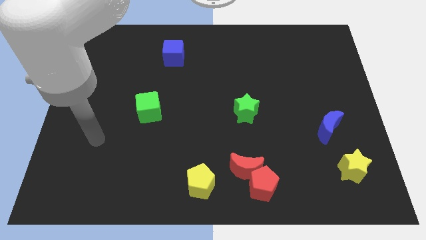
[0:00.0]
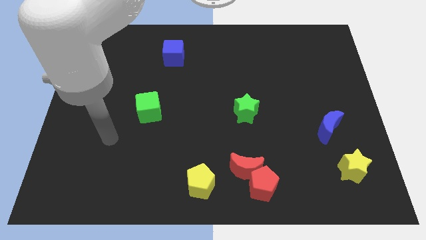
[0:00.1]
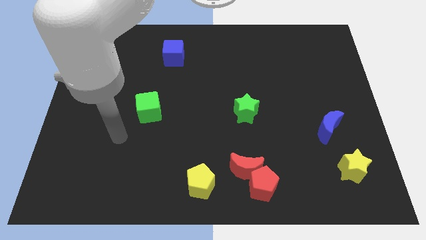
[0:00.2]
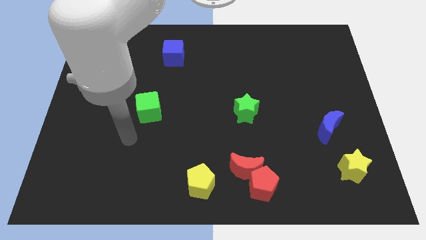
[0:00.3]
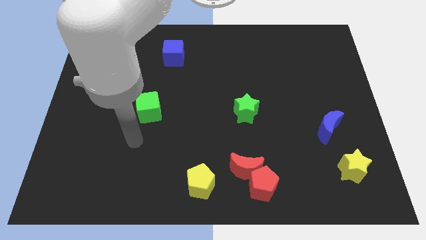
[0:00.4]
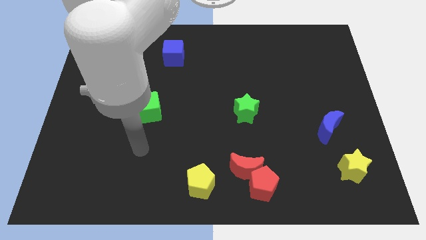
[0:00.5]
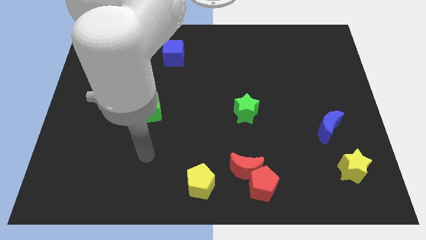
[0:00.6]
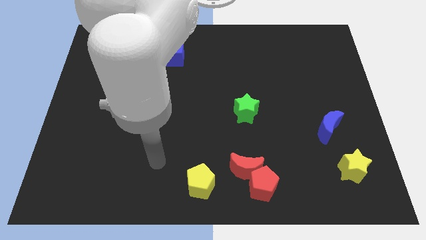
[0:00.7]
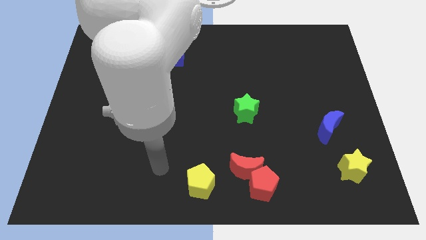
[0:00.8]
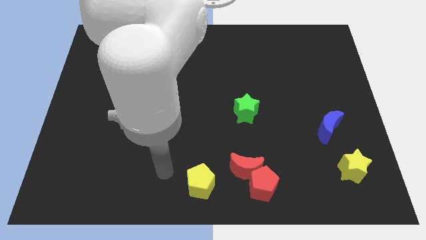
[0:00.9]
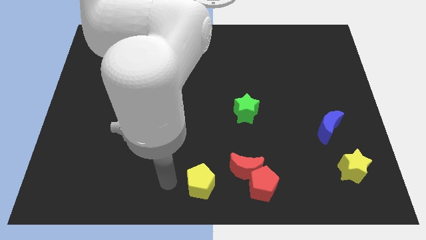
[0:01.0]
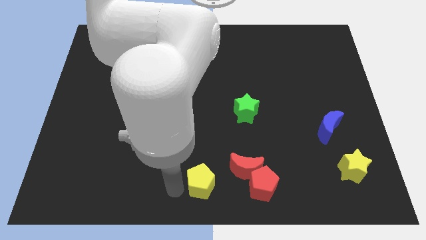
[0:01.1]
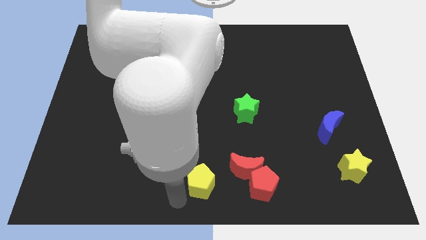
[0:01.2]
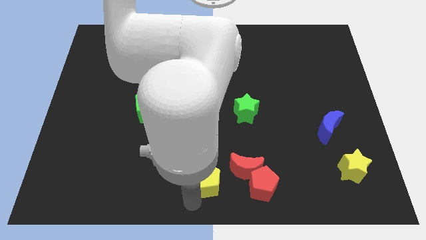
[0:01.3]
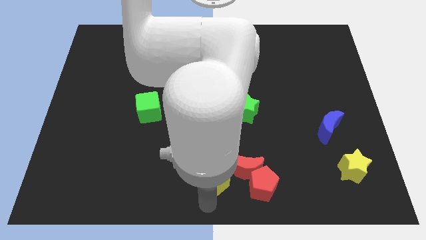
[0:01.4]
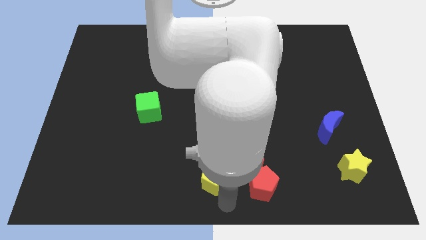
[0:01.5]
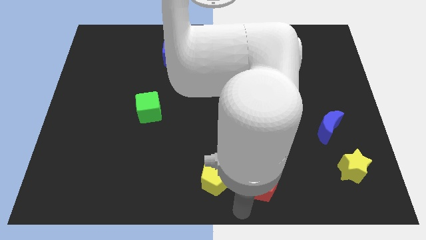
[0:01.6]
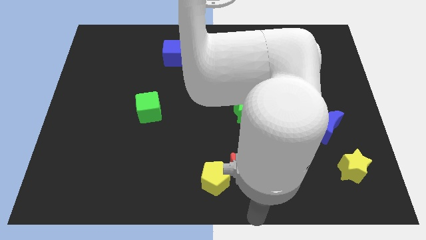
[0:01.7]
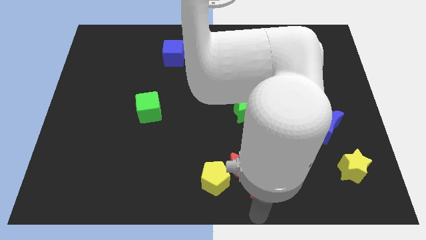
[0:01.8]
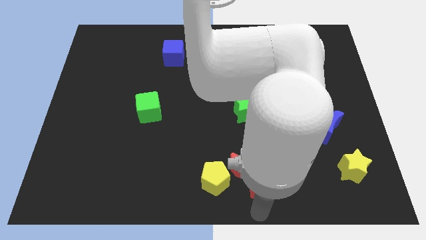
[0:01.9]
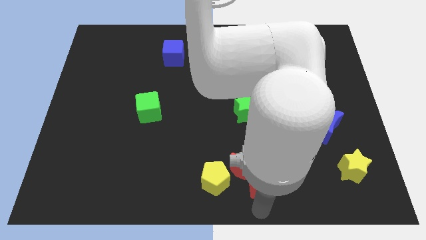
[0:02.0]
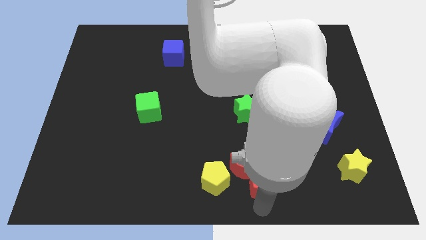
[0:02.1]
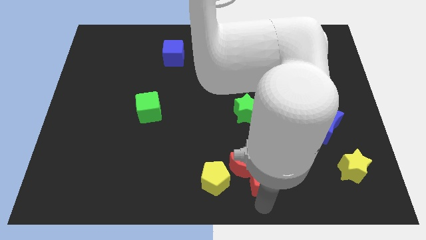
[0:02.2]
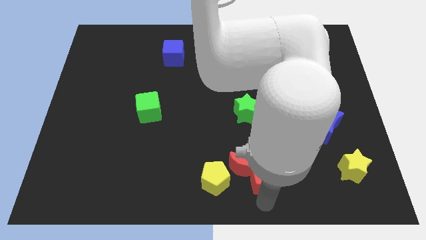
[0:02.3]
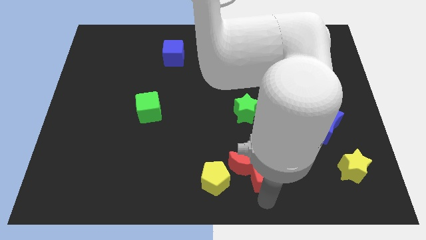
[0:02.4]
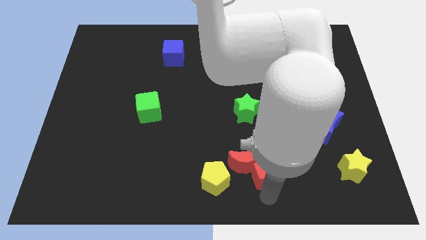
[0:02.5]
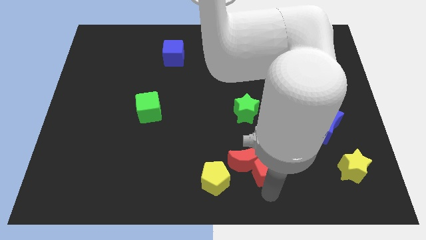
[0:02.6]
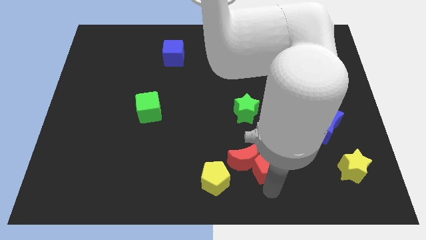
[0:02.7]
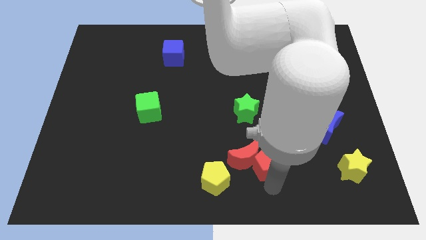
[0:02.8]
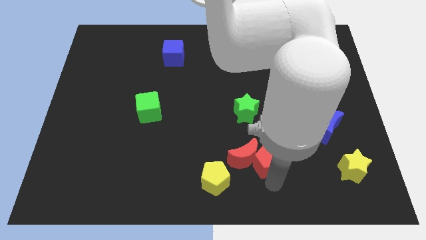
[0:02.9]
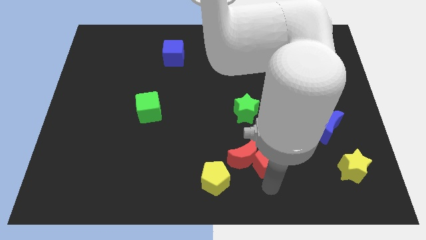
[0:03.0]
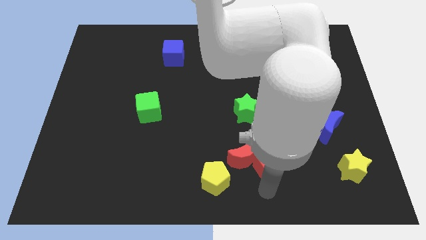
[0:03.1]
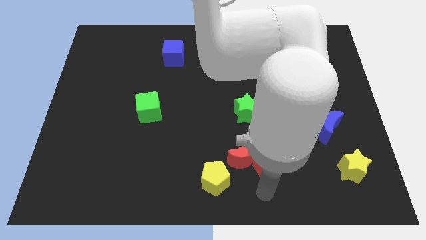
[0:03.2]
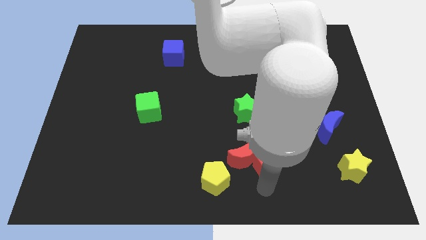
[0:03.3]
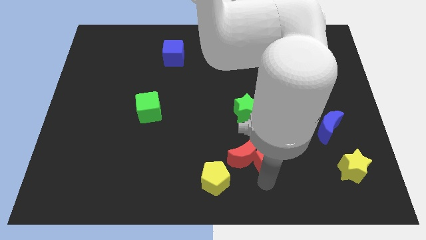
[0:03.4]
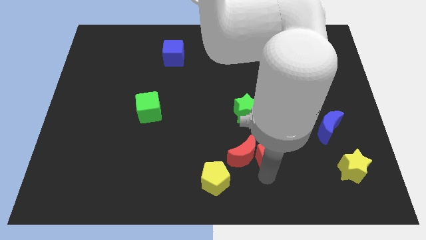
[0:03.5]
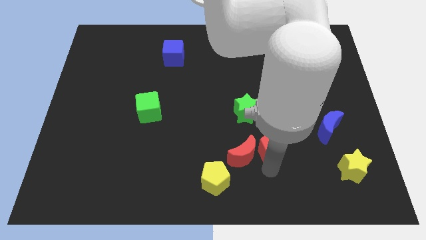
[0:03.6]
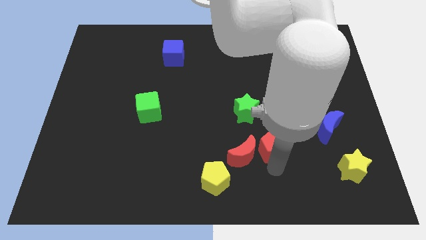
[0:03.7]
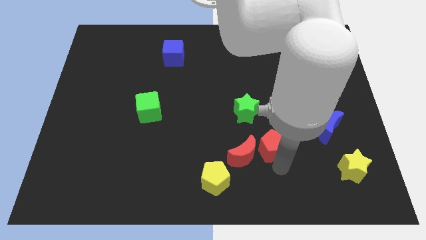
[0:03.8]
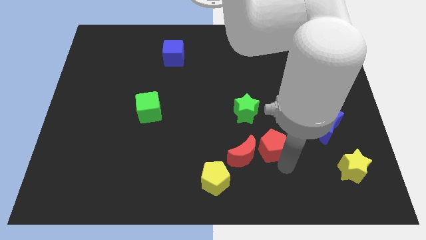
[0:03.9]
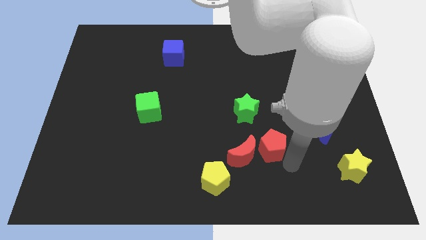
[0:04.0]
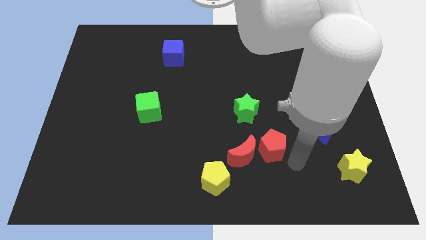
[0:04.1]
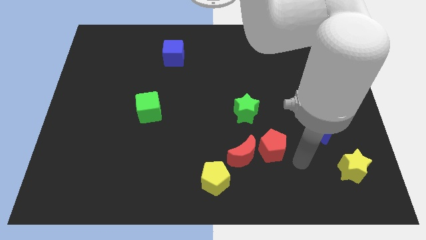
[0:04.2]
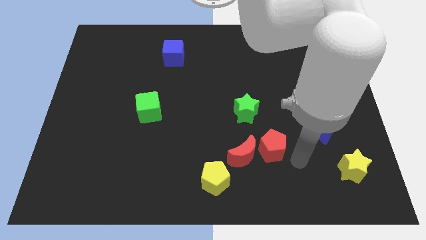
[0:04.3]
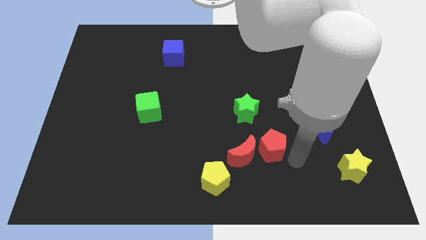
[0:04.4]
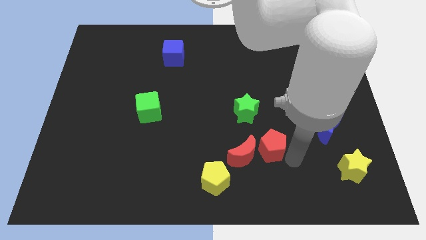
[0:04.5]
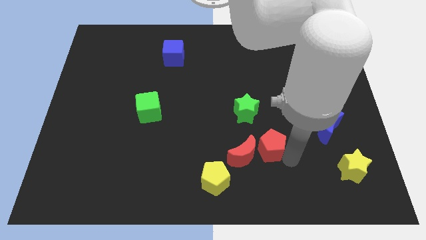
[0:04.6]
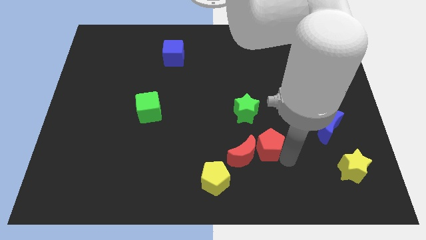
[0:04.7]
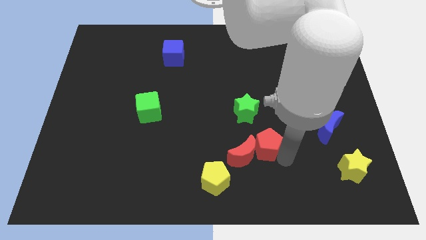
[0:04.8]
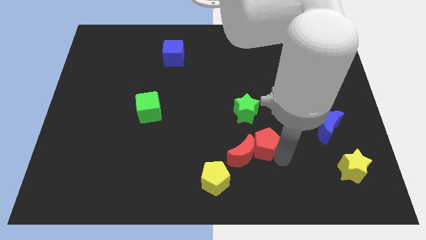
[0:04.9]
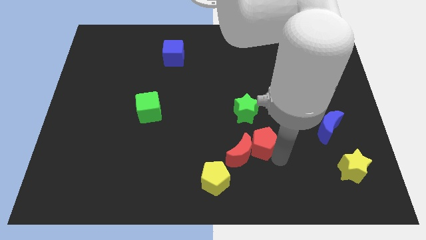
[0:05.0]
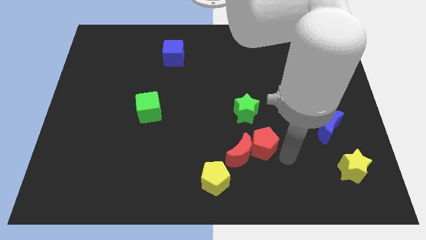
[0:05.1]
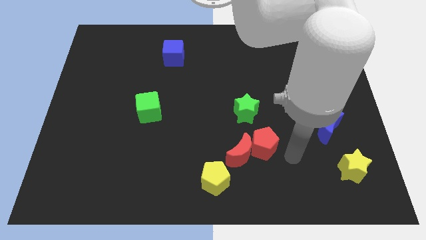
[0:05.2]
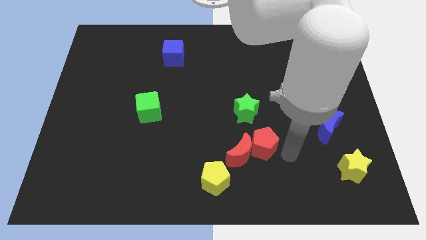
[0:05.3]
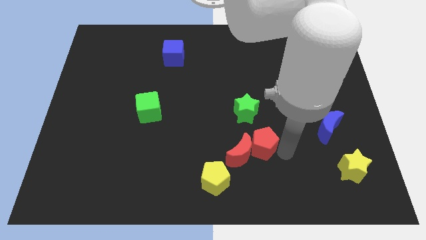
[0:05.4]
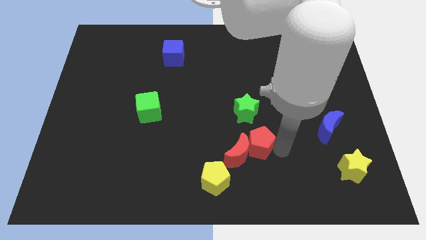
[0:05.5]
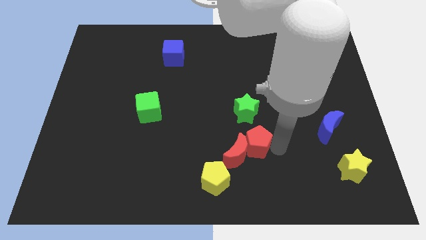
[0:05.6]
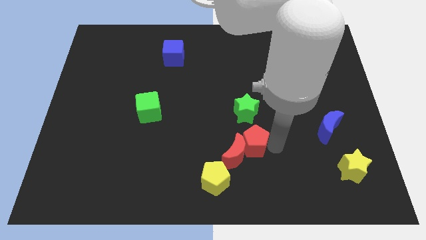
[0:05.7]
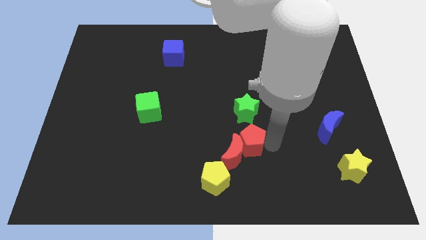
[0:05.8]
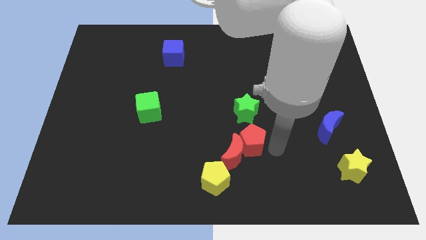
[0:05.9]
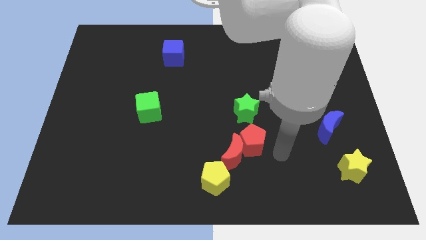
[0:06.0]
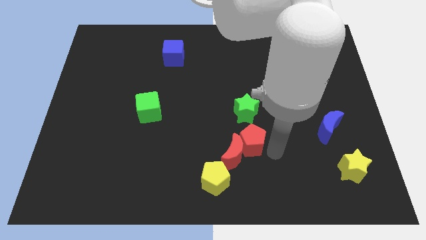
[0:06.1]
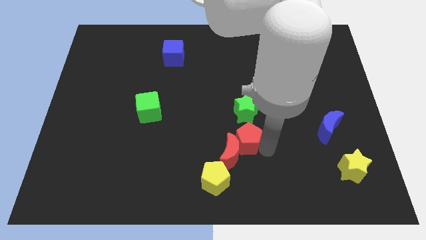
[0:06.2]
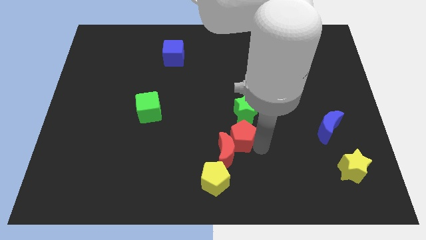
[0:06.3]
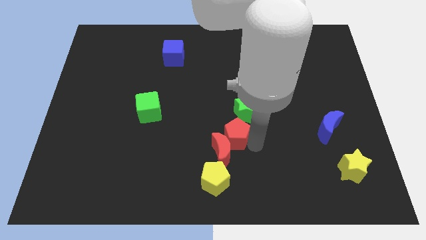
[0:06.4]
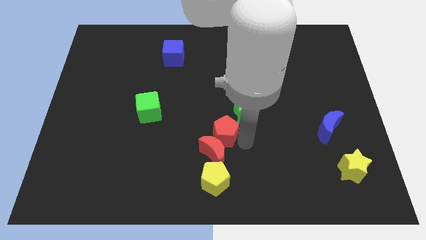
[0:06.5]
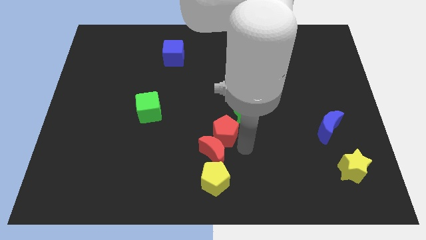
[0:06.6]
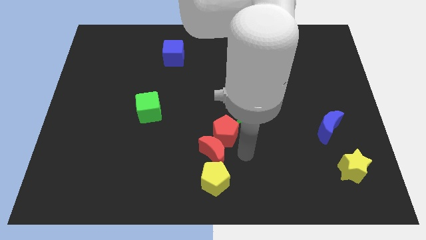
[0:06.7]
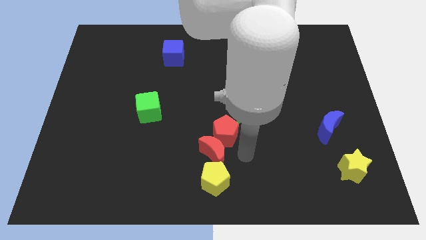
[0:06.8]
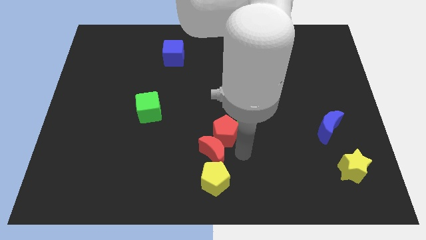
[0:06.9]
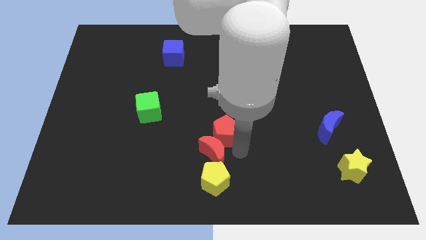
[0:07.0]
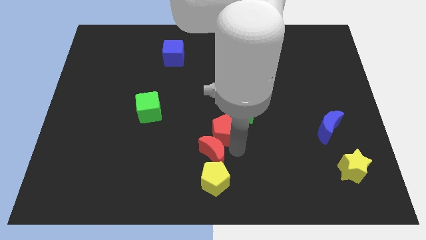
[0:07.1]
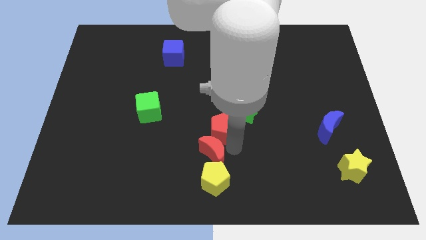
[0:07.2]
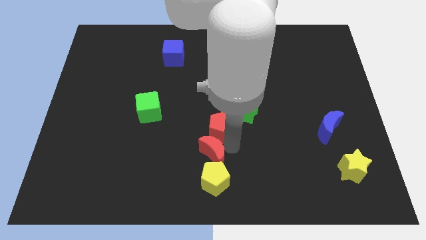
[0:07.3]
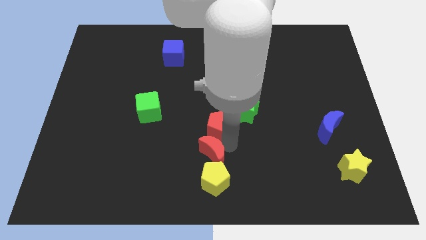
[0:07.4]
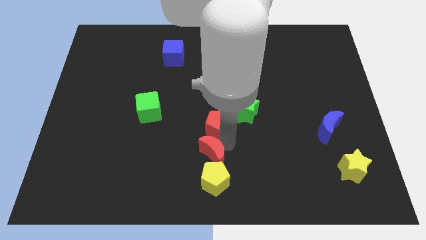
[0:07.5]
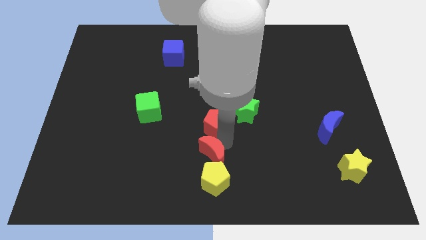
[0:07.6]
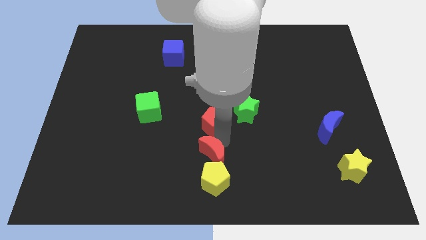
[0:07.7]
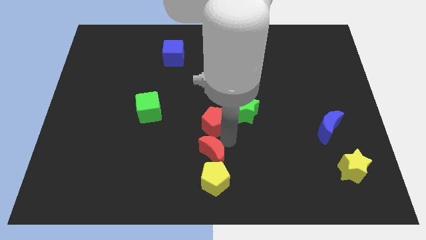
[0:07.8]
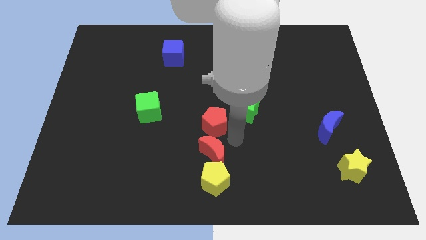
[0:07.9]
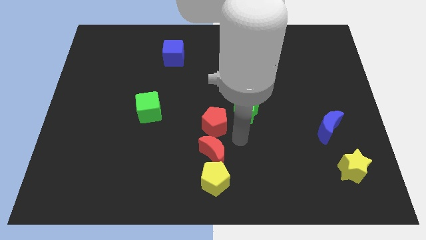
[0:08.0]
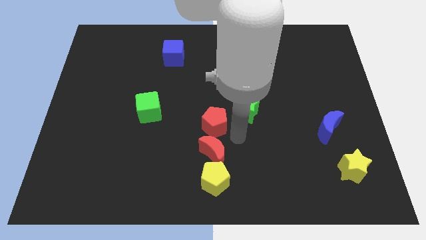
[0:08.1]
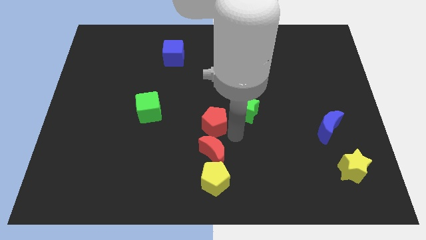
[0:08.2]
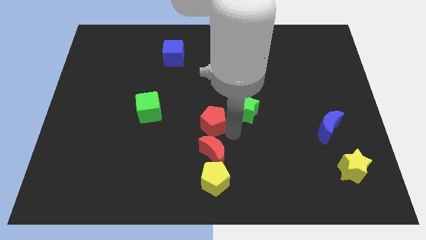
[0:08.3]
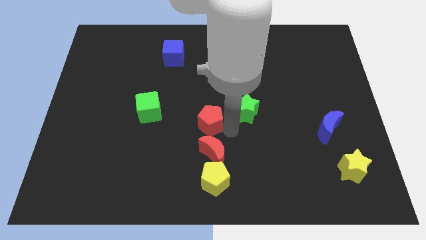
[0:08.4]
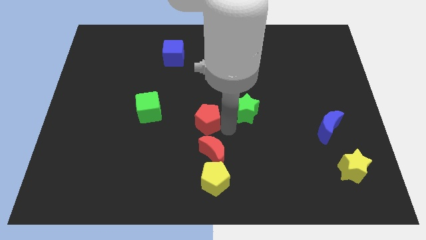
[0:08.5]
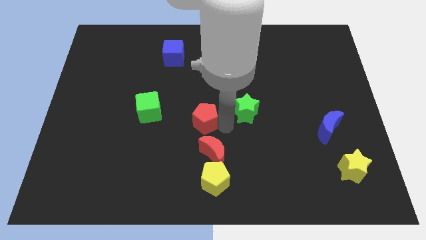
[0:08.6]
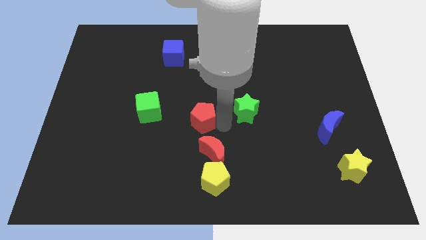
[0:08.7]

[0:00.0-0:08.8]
slide the red pentagon up and to the left diagonally
